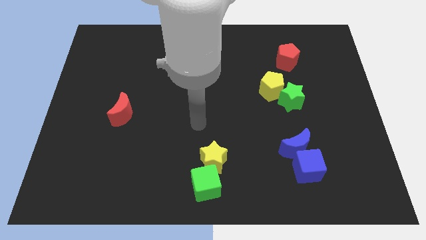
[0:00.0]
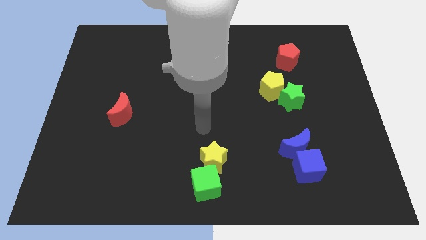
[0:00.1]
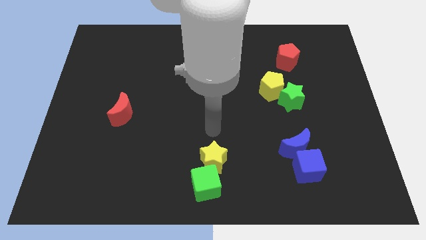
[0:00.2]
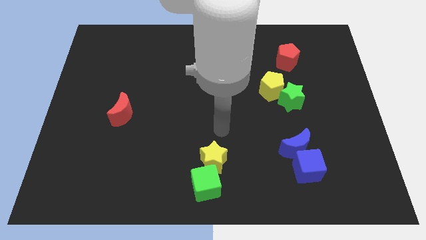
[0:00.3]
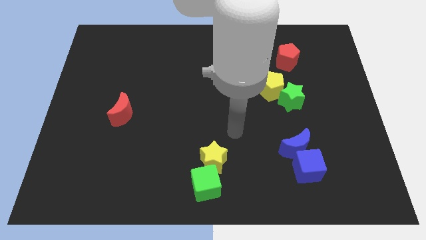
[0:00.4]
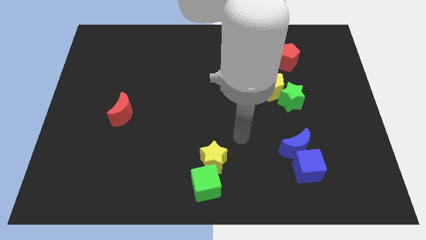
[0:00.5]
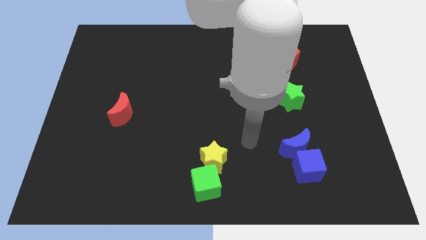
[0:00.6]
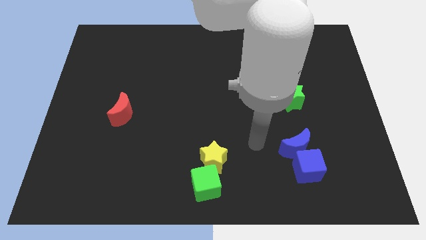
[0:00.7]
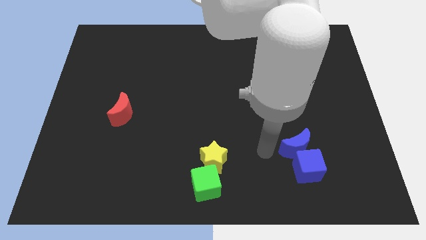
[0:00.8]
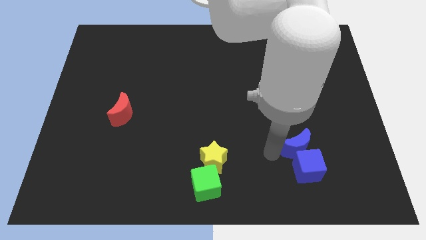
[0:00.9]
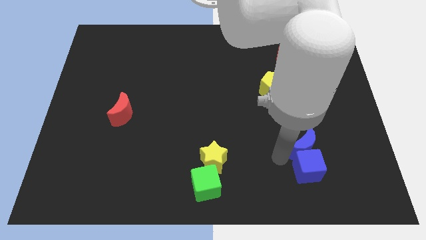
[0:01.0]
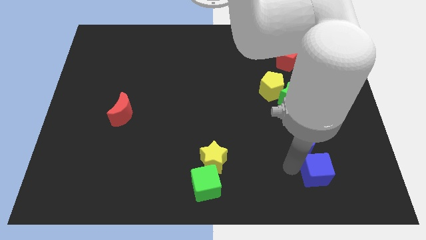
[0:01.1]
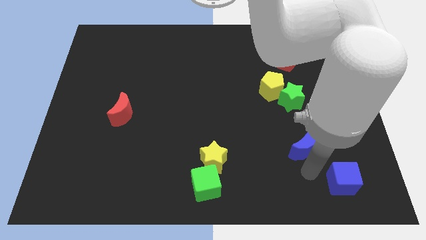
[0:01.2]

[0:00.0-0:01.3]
move the blue moon away from the blue cube

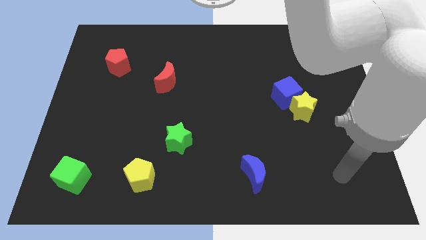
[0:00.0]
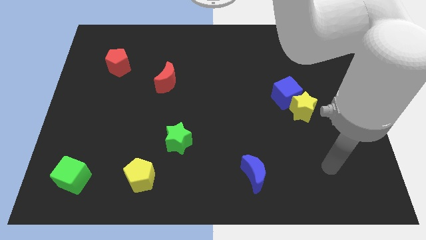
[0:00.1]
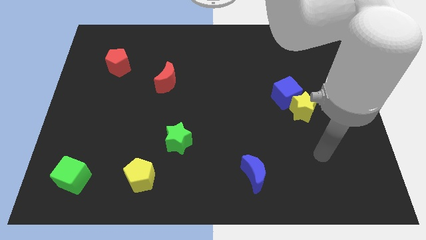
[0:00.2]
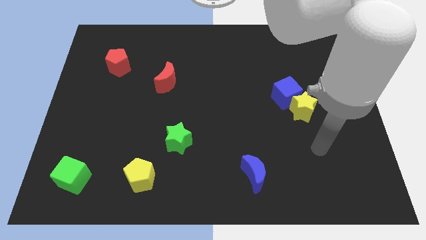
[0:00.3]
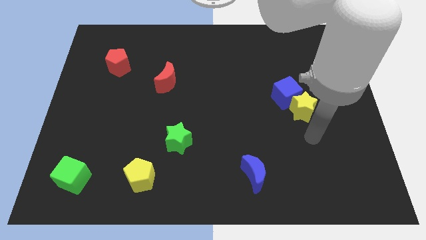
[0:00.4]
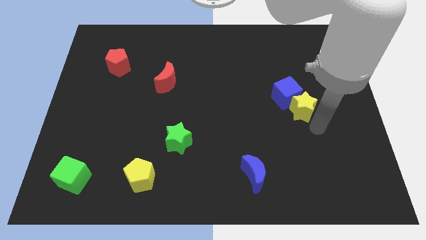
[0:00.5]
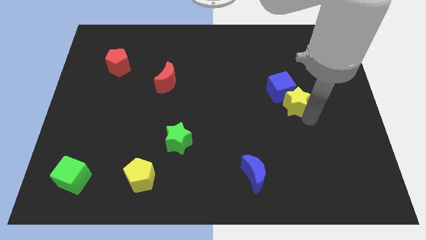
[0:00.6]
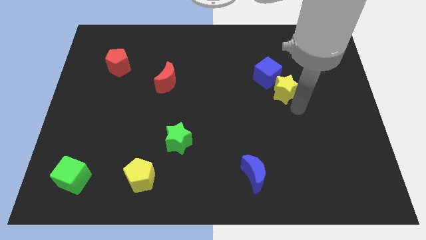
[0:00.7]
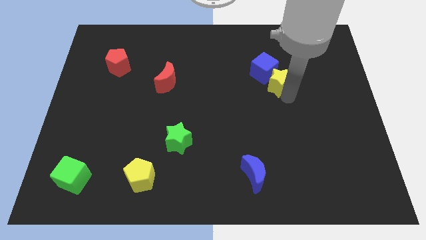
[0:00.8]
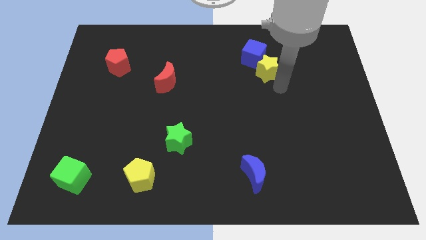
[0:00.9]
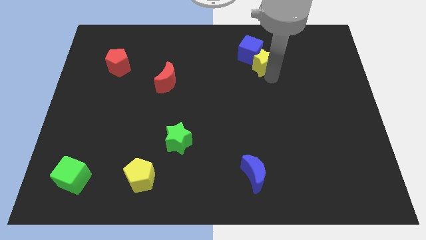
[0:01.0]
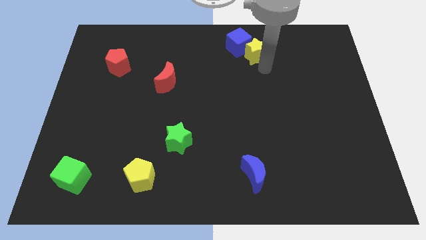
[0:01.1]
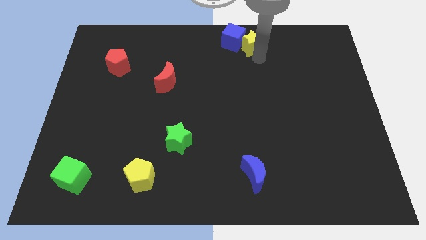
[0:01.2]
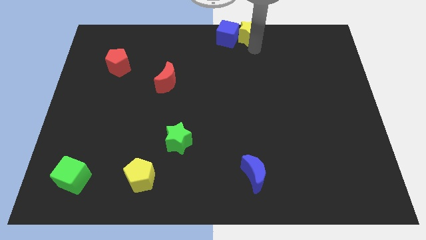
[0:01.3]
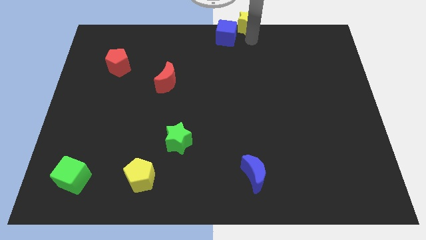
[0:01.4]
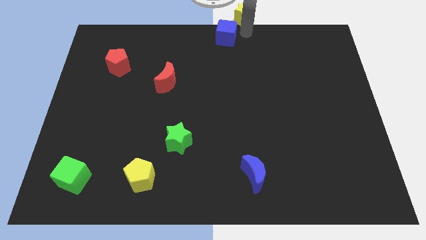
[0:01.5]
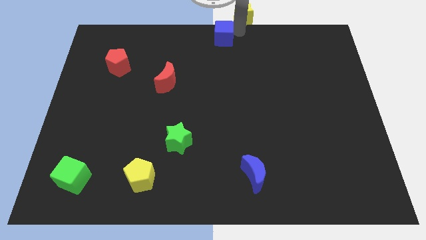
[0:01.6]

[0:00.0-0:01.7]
pull the blue cube apart from the yellow star

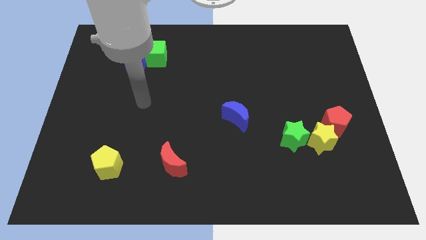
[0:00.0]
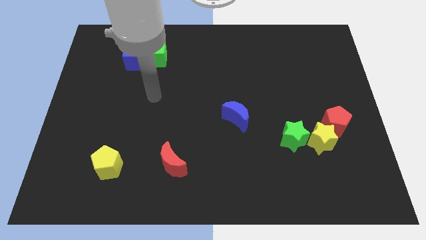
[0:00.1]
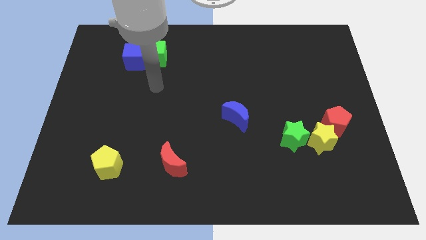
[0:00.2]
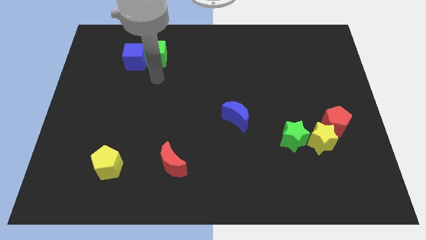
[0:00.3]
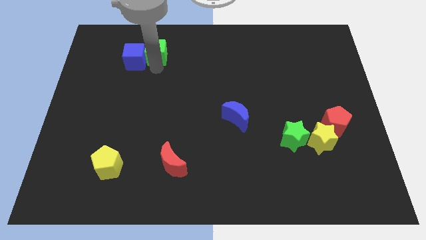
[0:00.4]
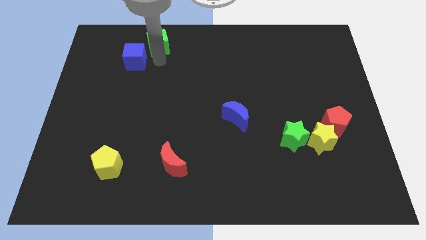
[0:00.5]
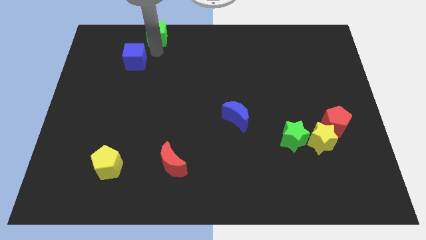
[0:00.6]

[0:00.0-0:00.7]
pull the blue cube apart from the green cube

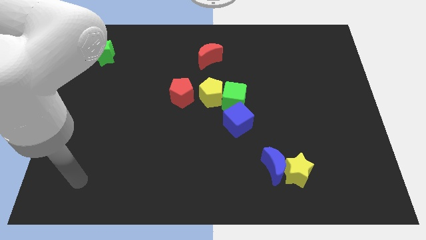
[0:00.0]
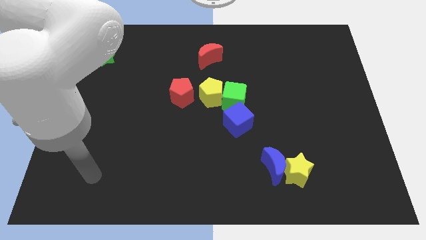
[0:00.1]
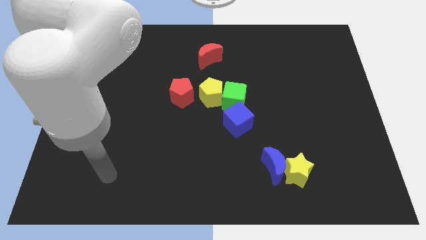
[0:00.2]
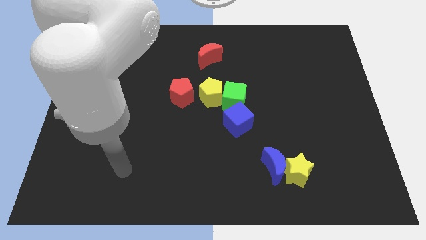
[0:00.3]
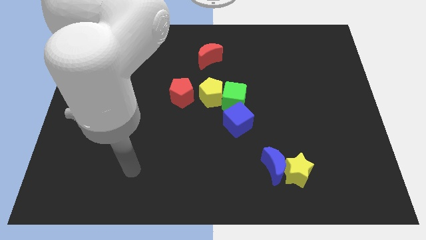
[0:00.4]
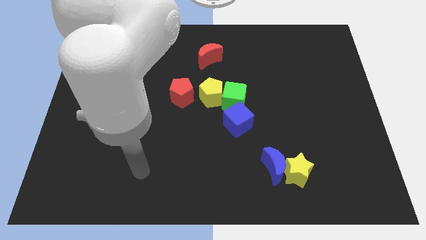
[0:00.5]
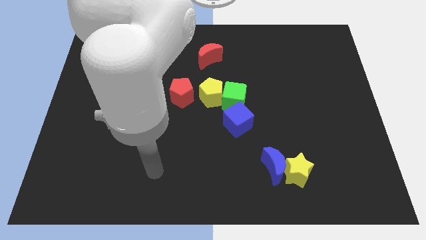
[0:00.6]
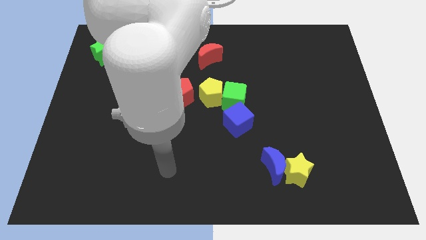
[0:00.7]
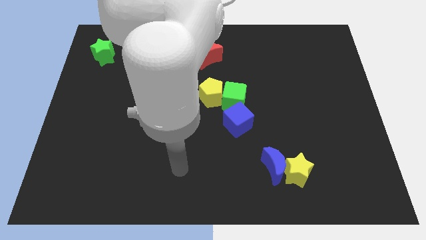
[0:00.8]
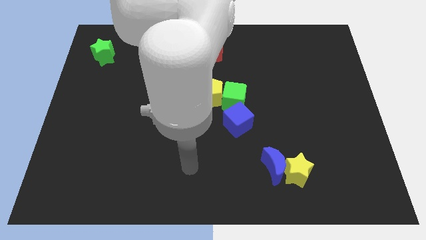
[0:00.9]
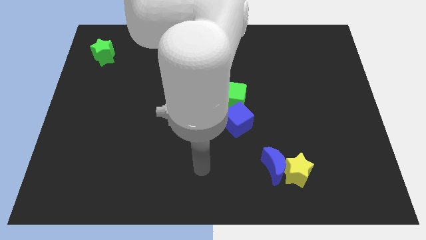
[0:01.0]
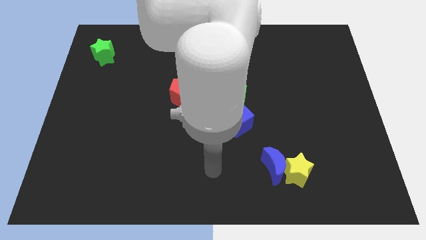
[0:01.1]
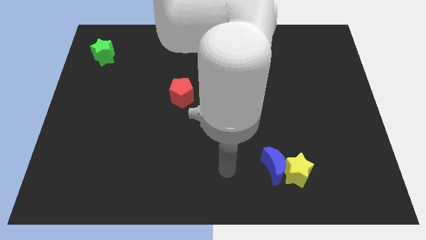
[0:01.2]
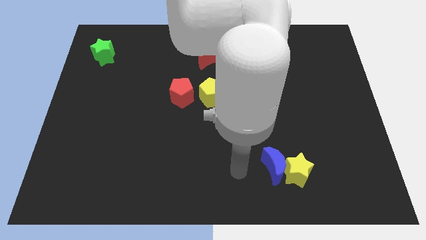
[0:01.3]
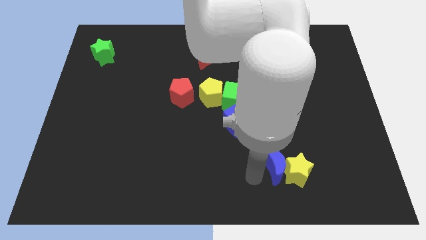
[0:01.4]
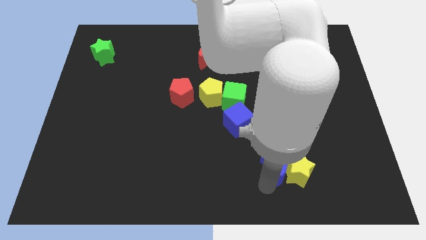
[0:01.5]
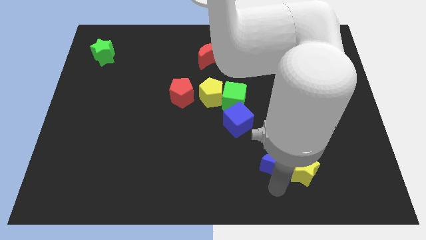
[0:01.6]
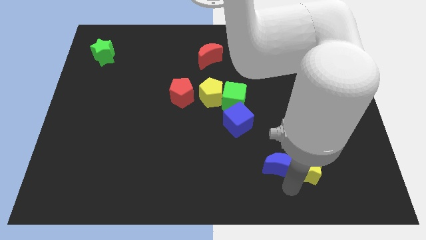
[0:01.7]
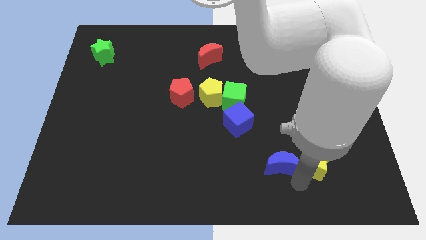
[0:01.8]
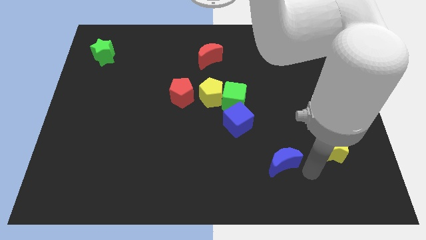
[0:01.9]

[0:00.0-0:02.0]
pull the blue moon apart from the yellow star

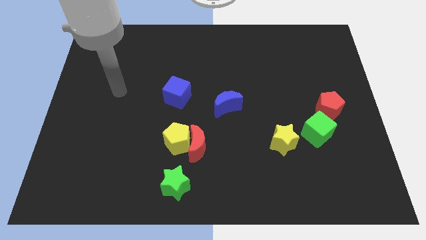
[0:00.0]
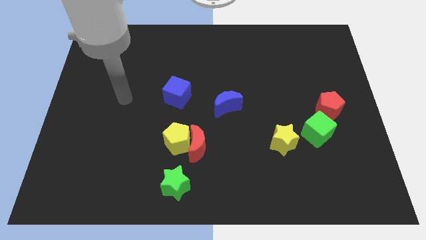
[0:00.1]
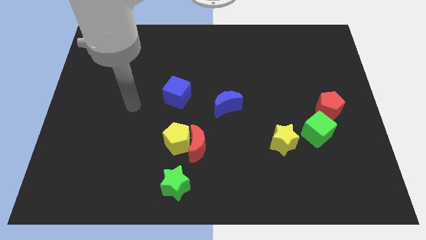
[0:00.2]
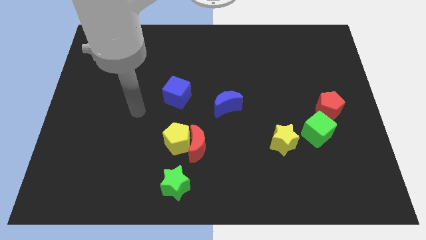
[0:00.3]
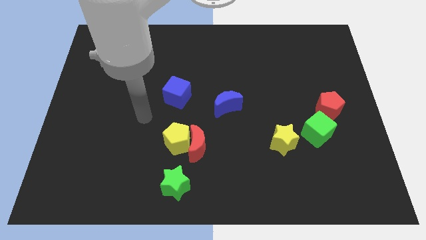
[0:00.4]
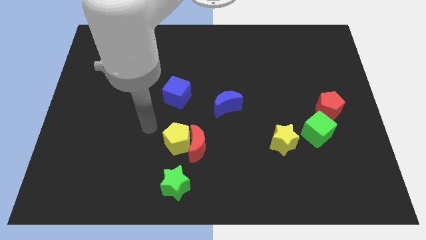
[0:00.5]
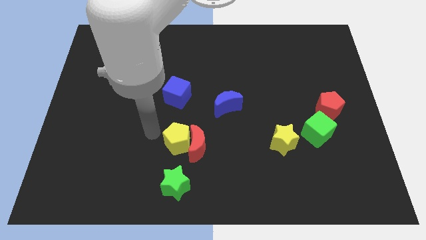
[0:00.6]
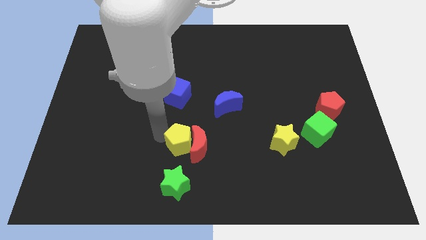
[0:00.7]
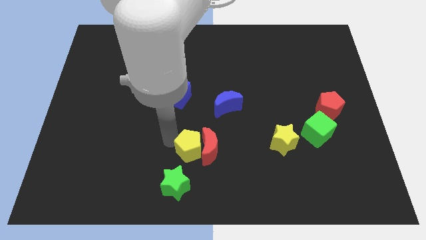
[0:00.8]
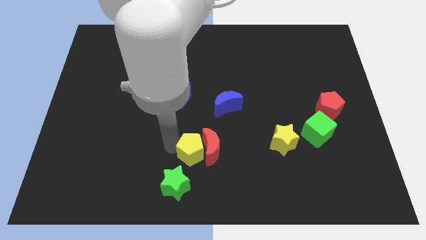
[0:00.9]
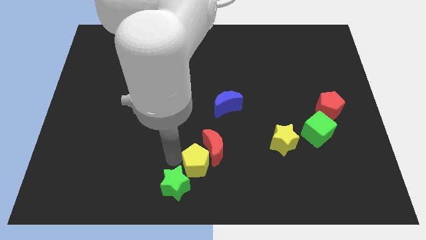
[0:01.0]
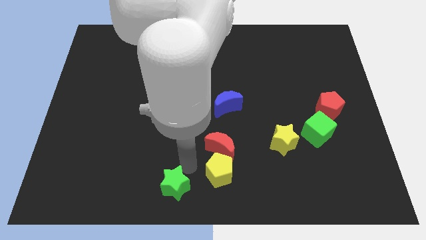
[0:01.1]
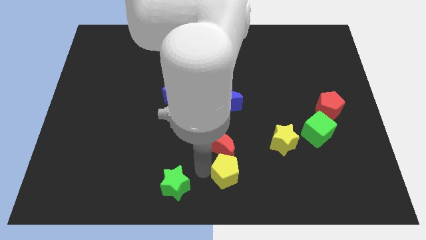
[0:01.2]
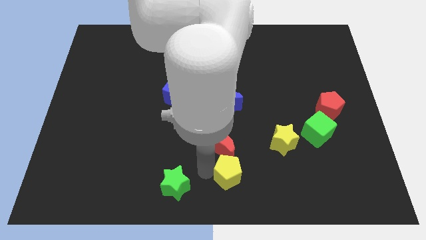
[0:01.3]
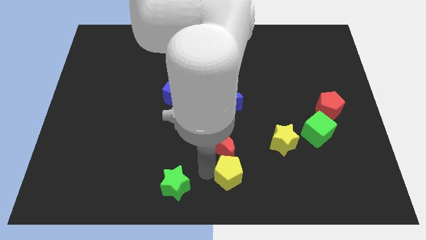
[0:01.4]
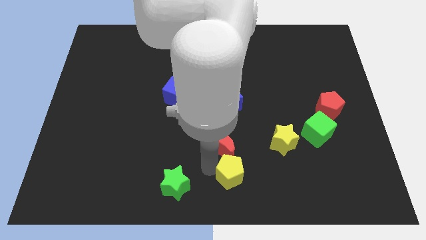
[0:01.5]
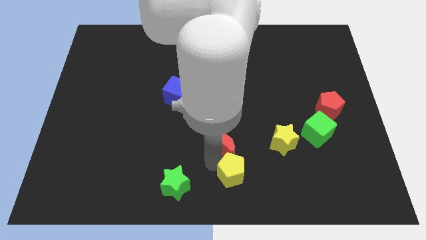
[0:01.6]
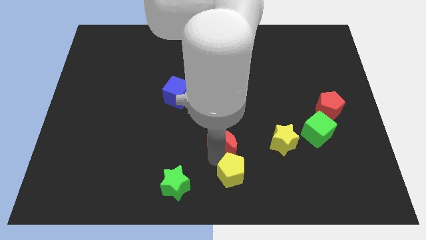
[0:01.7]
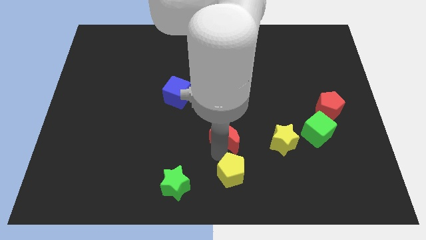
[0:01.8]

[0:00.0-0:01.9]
pull the red moon apart from the yellow pentagon and green star

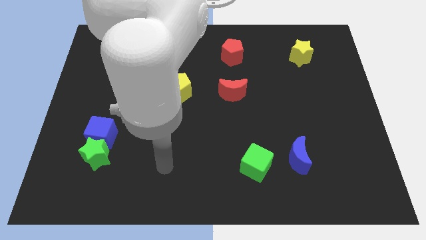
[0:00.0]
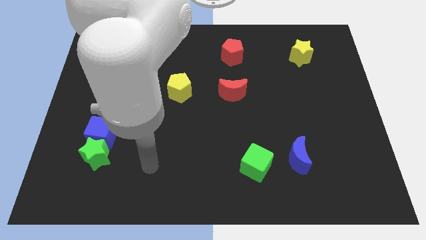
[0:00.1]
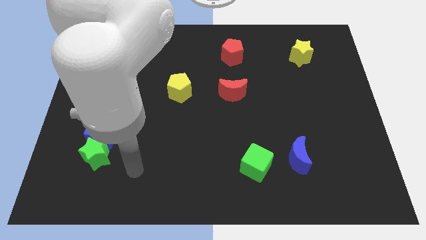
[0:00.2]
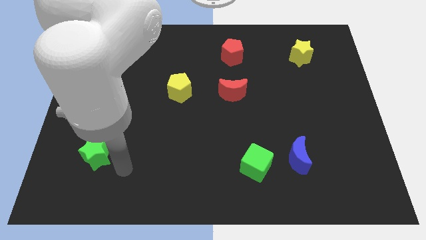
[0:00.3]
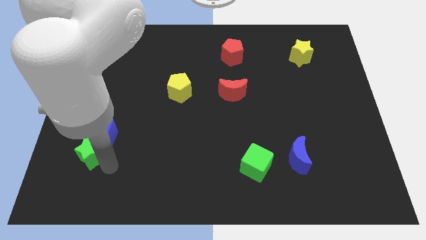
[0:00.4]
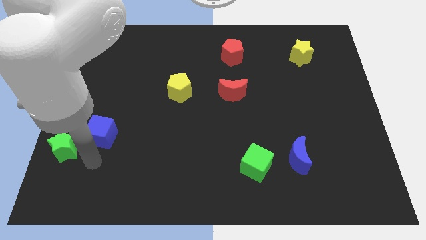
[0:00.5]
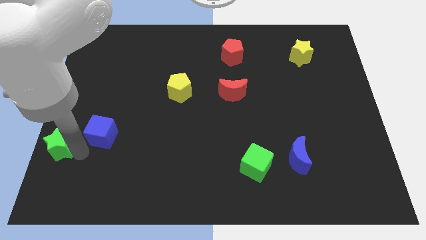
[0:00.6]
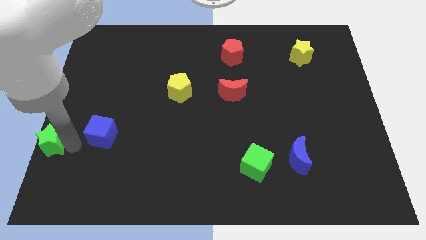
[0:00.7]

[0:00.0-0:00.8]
separate the blue cube from the green star

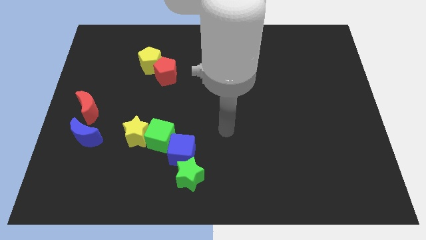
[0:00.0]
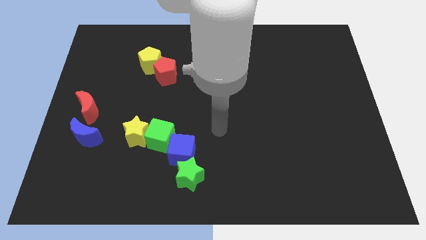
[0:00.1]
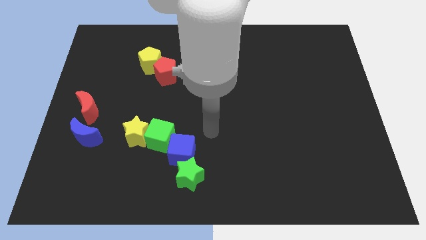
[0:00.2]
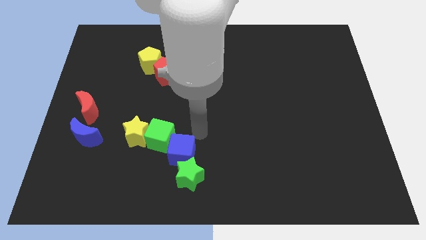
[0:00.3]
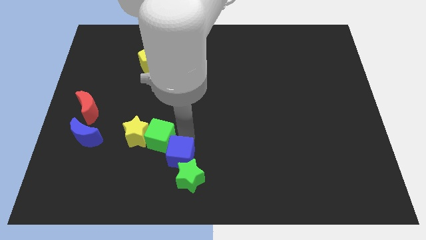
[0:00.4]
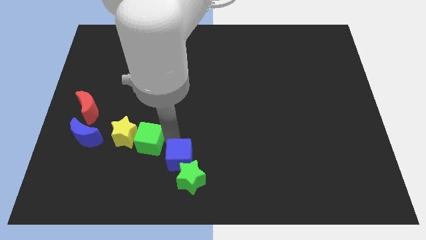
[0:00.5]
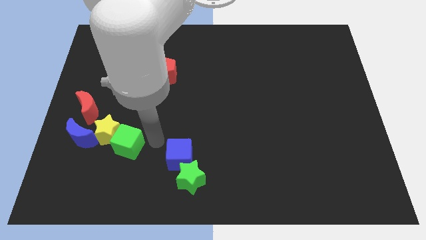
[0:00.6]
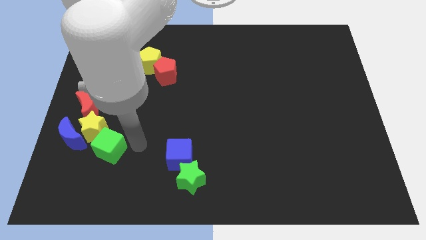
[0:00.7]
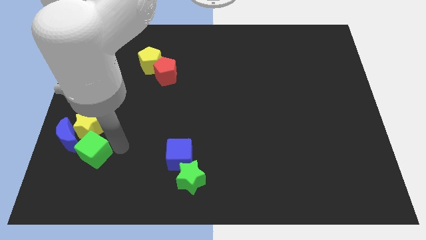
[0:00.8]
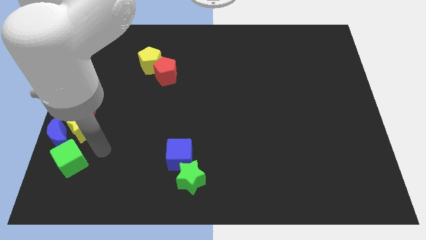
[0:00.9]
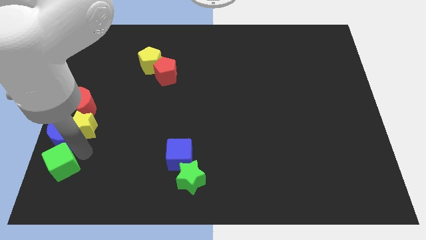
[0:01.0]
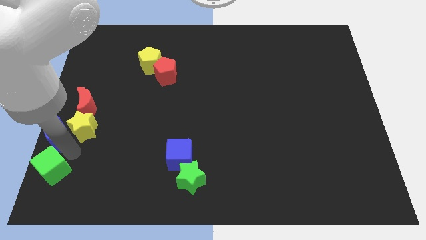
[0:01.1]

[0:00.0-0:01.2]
pull the yellow star apart from the green cube
